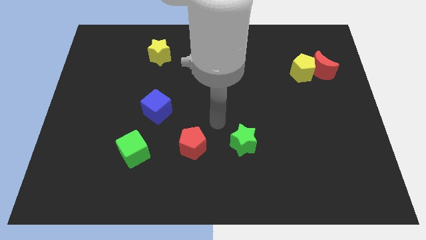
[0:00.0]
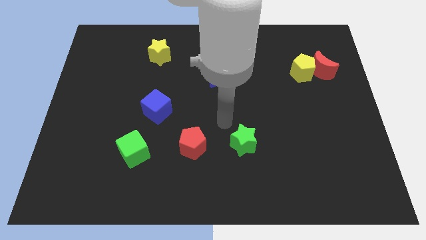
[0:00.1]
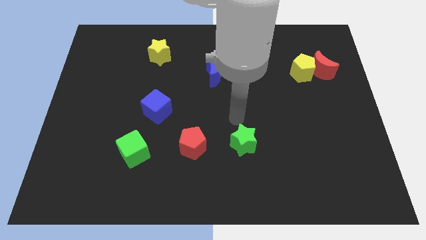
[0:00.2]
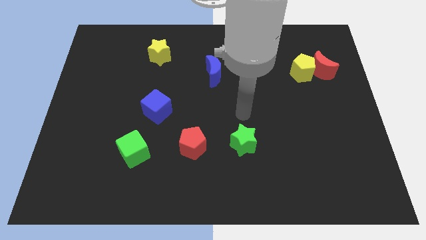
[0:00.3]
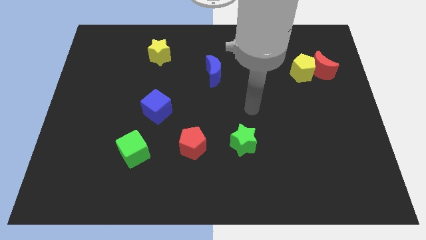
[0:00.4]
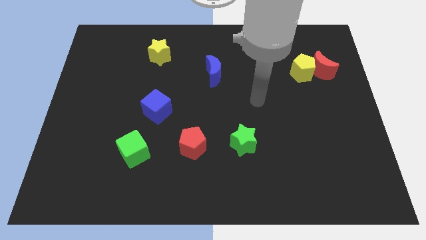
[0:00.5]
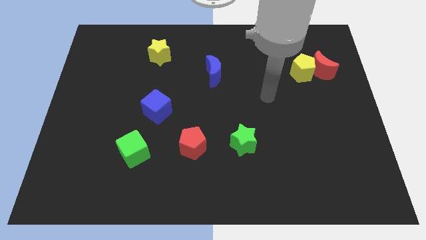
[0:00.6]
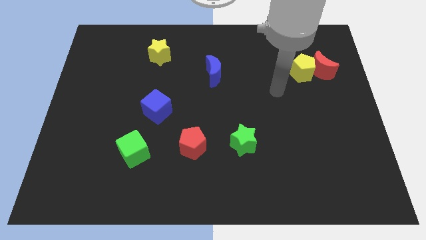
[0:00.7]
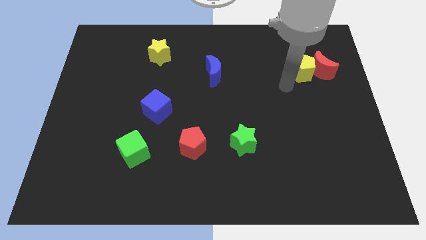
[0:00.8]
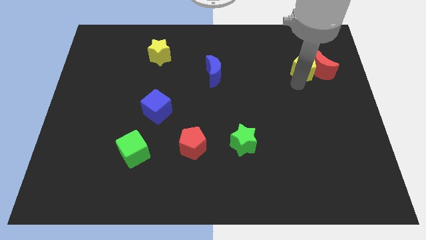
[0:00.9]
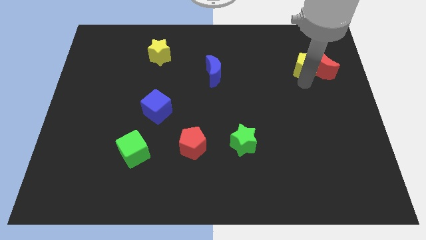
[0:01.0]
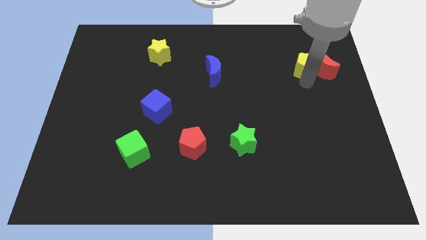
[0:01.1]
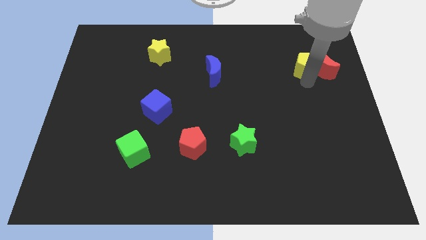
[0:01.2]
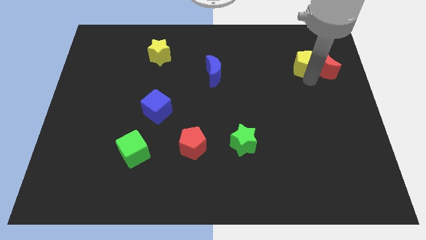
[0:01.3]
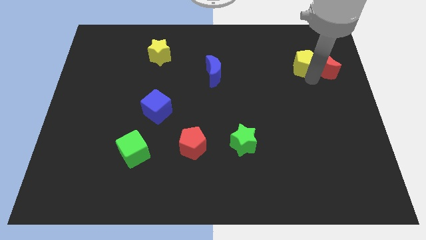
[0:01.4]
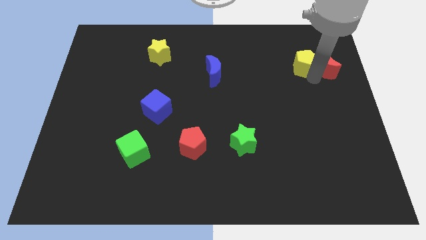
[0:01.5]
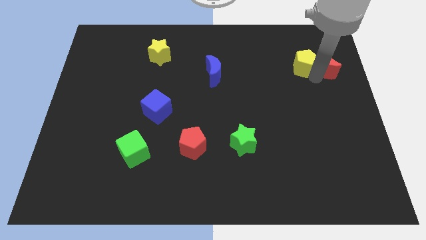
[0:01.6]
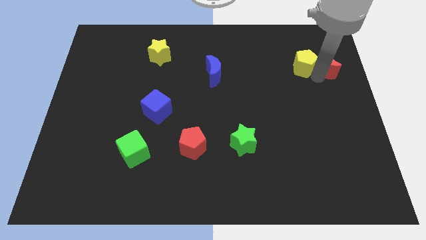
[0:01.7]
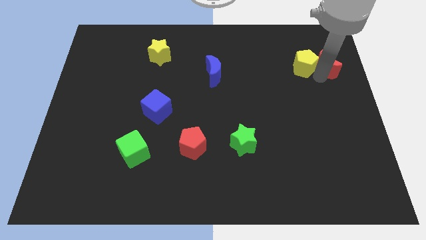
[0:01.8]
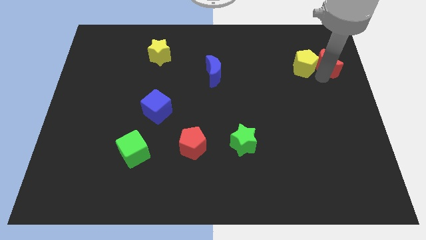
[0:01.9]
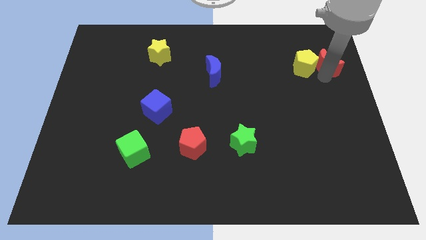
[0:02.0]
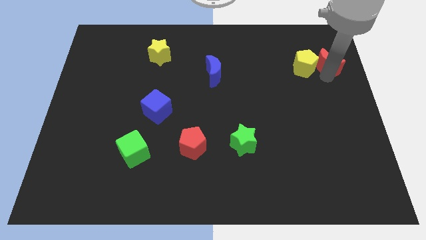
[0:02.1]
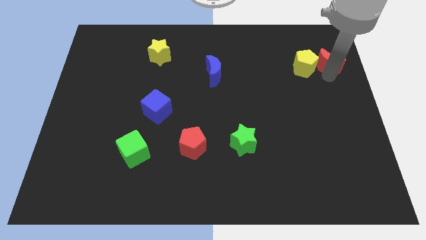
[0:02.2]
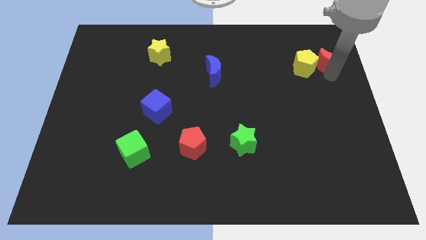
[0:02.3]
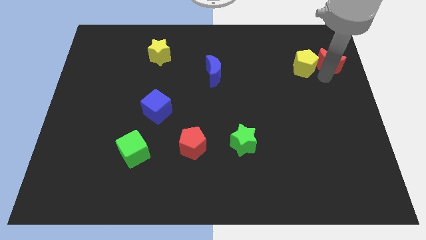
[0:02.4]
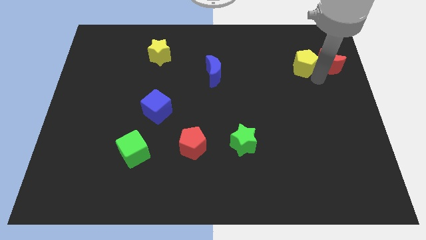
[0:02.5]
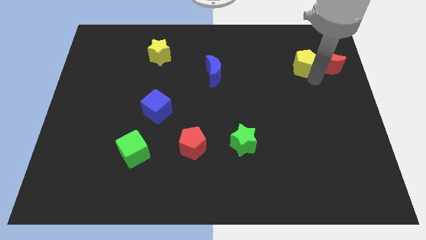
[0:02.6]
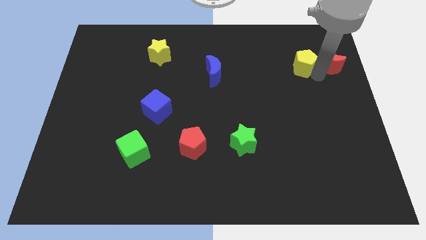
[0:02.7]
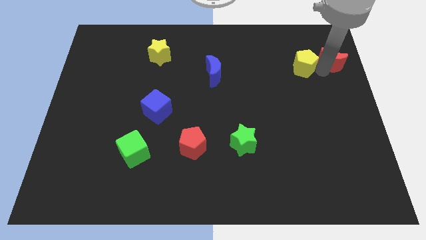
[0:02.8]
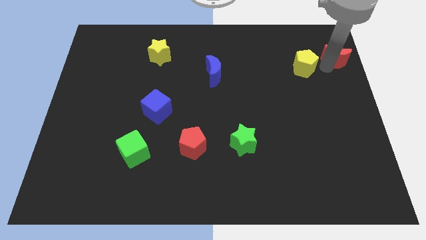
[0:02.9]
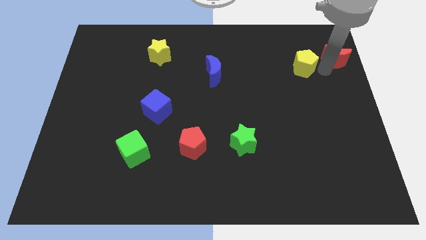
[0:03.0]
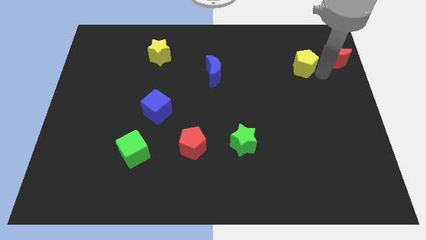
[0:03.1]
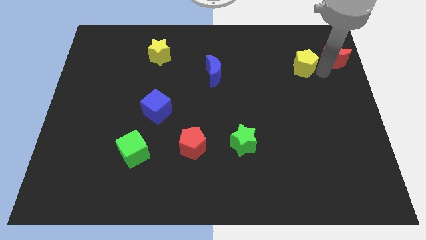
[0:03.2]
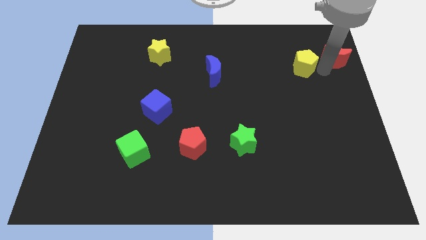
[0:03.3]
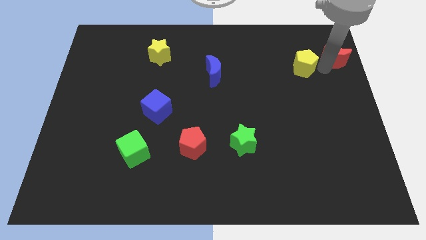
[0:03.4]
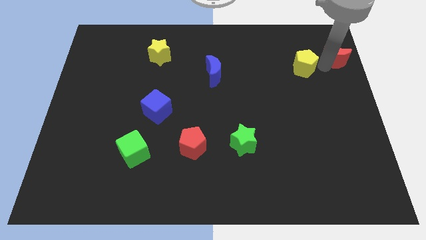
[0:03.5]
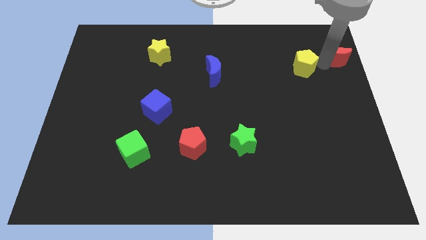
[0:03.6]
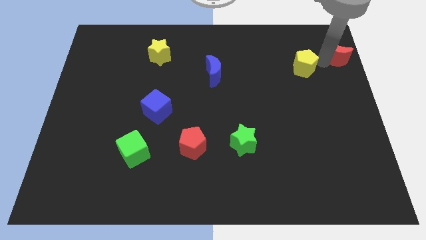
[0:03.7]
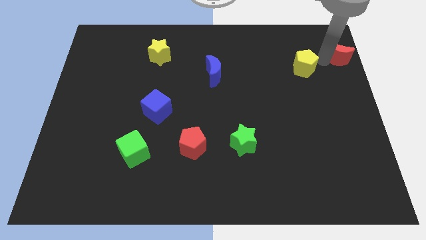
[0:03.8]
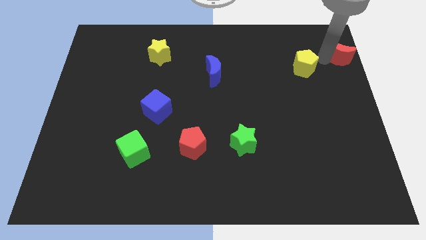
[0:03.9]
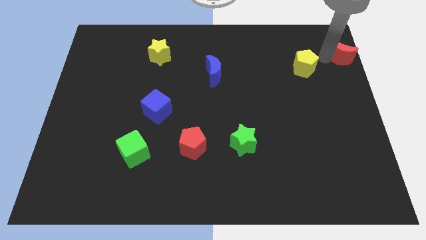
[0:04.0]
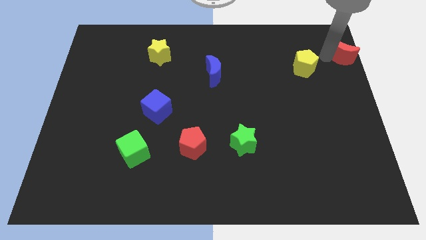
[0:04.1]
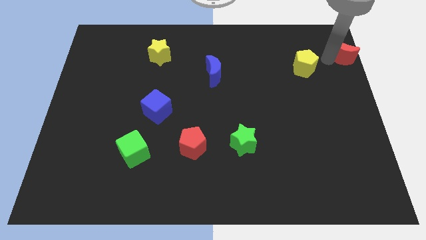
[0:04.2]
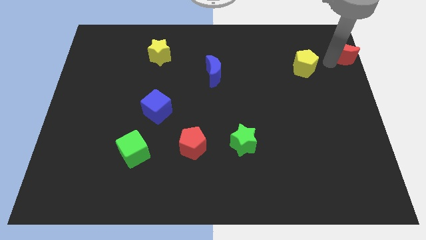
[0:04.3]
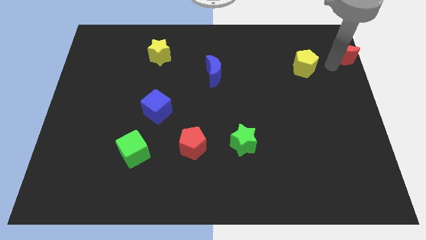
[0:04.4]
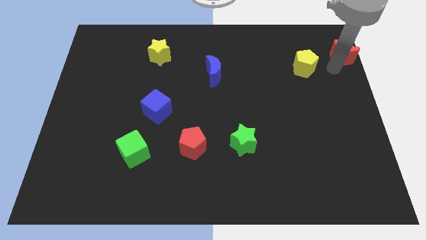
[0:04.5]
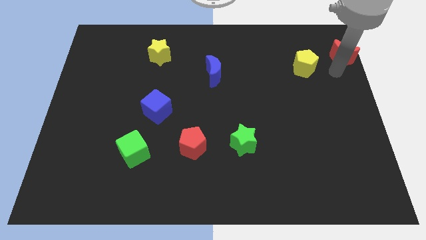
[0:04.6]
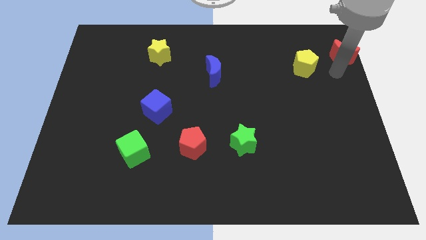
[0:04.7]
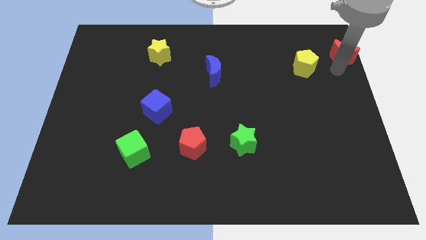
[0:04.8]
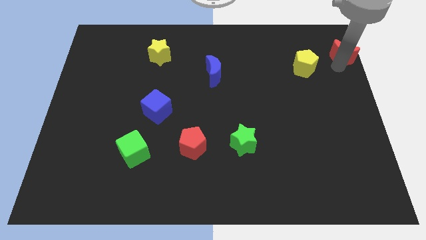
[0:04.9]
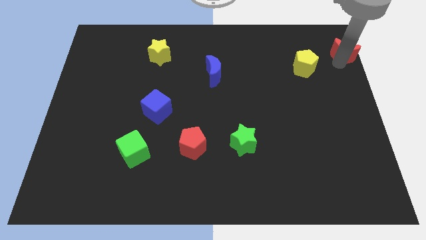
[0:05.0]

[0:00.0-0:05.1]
move the red moon to the top right corner

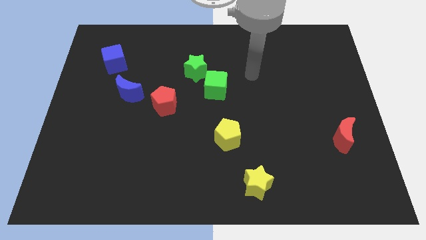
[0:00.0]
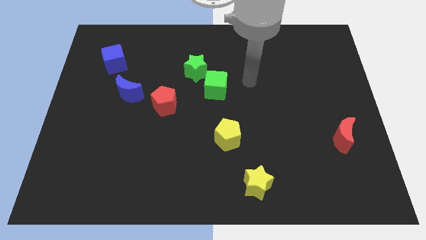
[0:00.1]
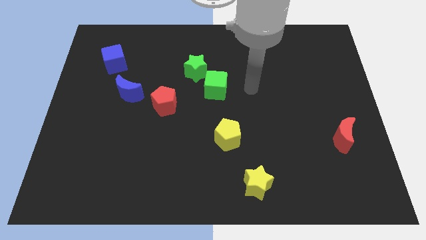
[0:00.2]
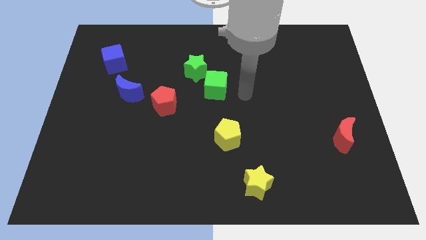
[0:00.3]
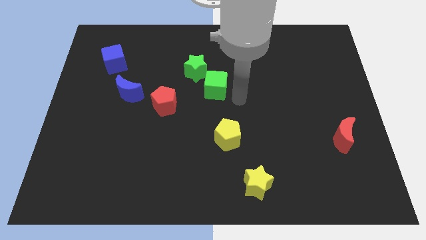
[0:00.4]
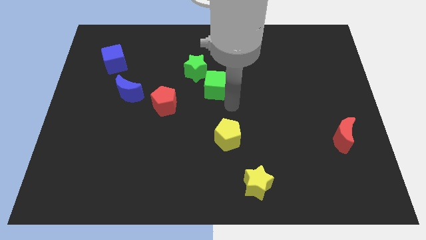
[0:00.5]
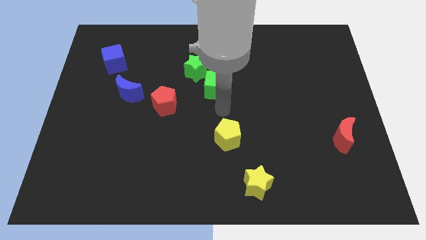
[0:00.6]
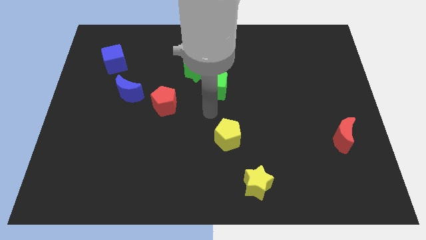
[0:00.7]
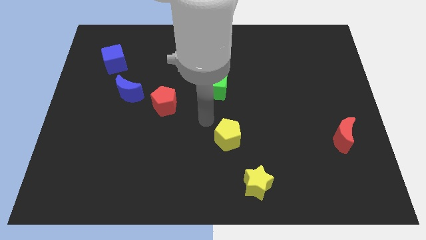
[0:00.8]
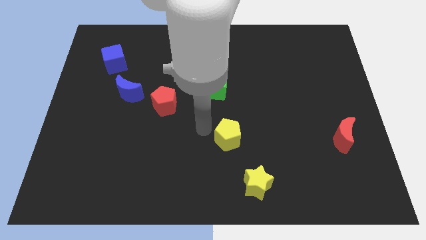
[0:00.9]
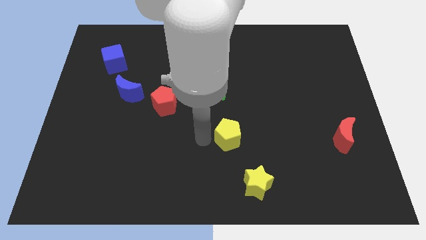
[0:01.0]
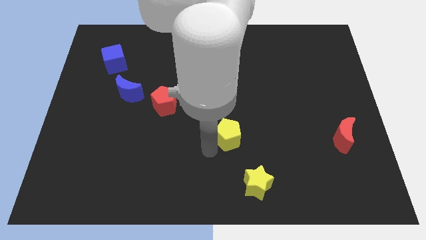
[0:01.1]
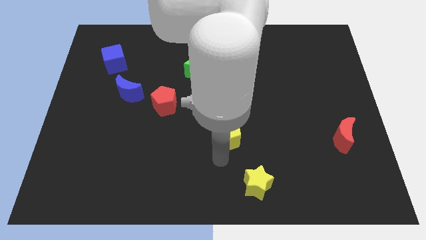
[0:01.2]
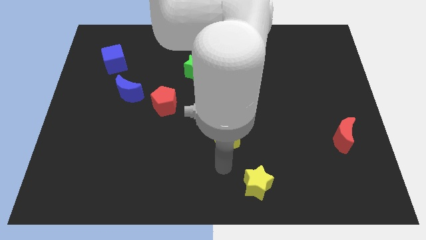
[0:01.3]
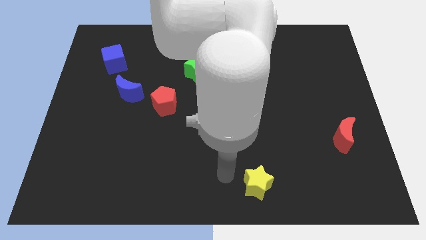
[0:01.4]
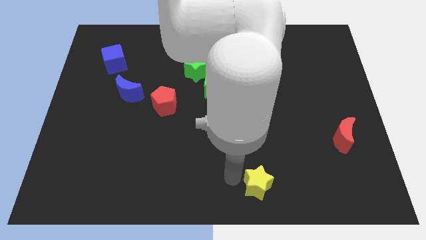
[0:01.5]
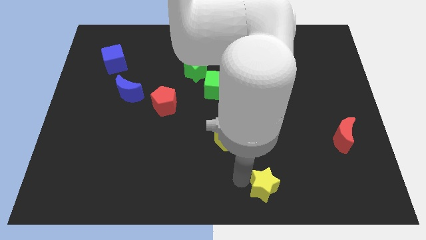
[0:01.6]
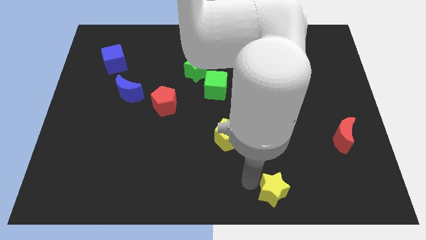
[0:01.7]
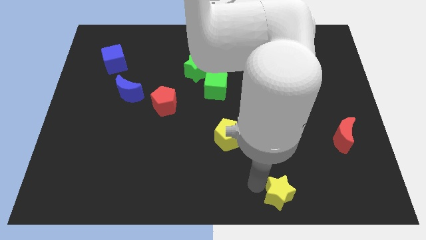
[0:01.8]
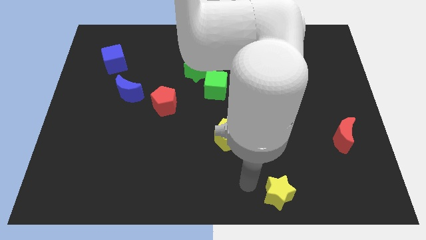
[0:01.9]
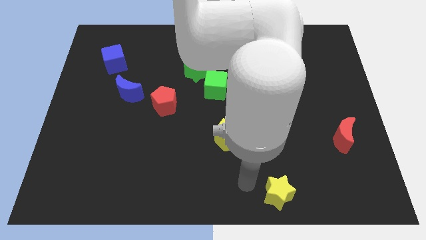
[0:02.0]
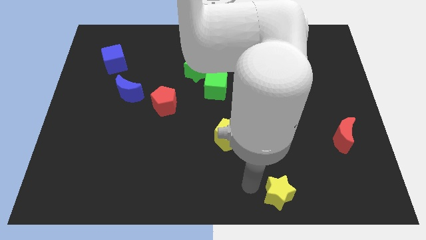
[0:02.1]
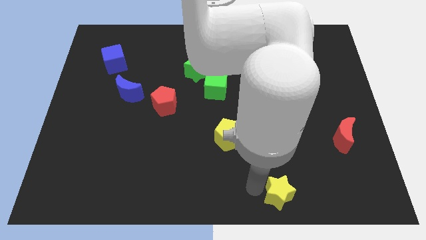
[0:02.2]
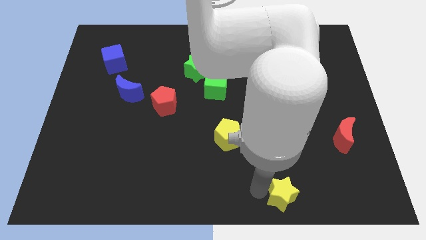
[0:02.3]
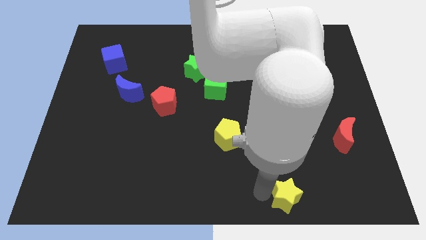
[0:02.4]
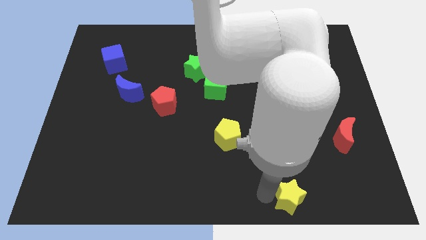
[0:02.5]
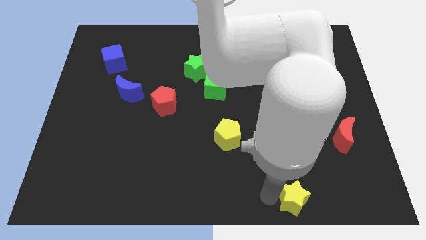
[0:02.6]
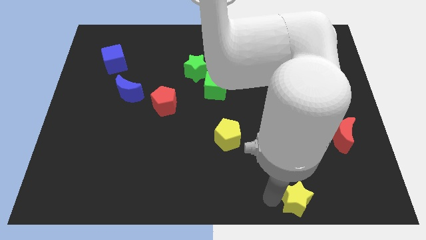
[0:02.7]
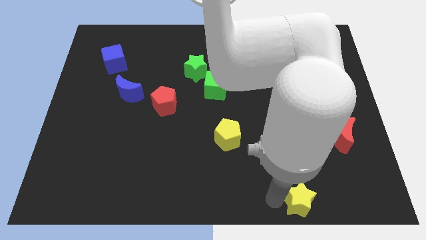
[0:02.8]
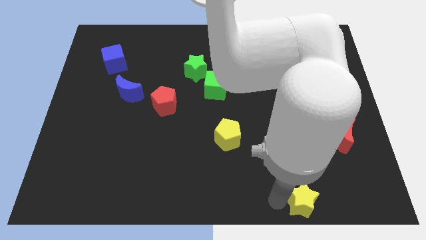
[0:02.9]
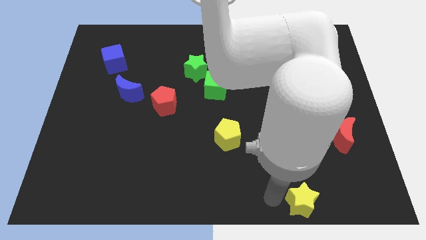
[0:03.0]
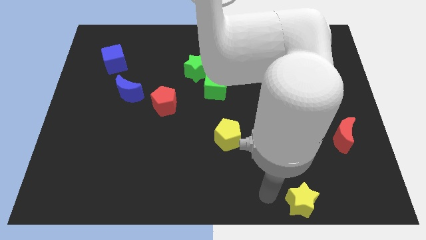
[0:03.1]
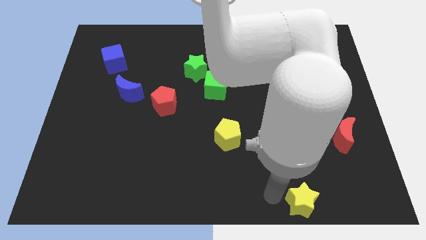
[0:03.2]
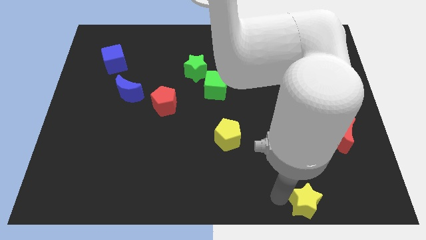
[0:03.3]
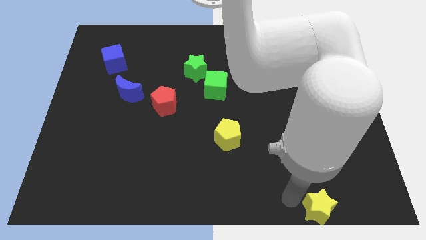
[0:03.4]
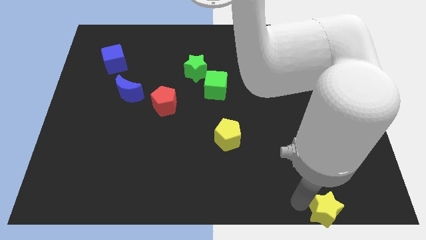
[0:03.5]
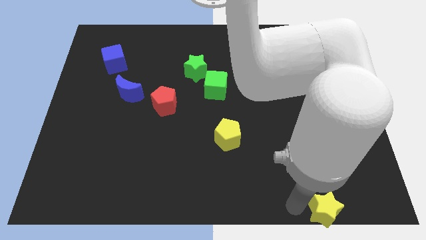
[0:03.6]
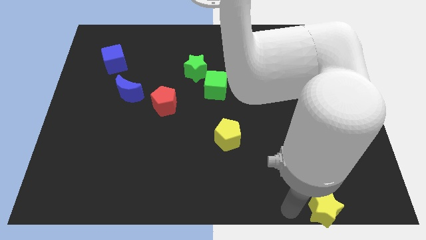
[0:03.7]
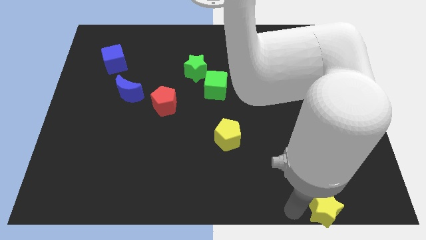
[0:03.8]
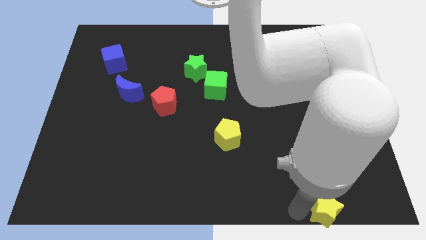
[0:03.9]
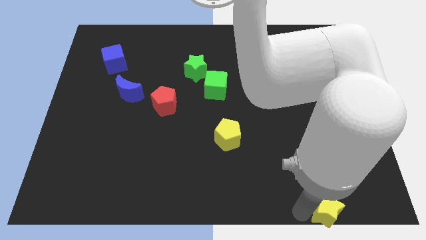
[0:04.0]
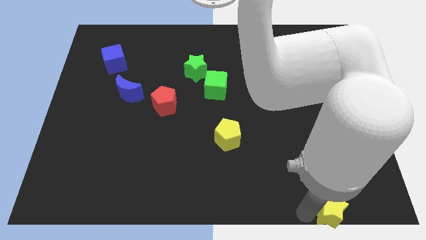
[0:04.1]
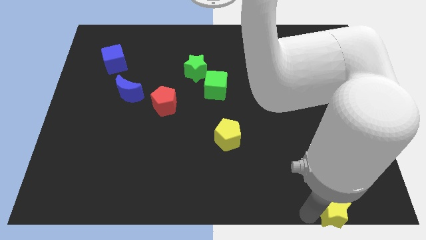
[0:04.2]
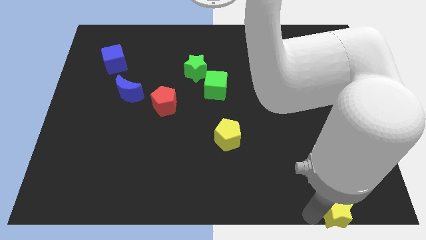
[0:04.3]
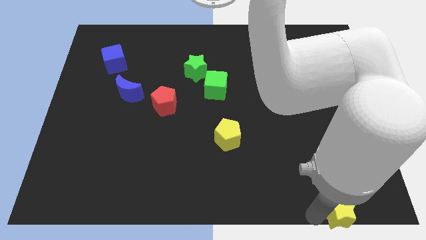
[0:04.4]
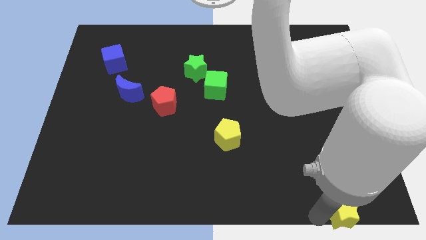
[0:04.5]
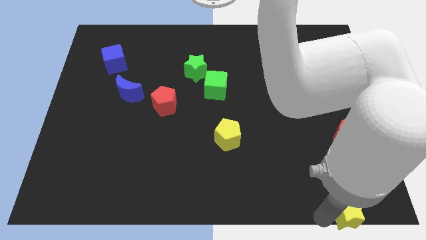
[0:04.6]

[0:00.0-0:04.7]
put the yellow star to the bottom right corner
